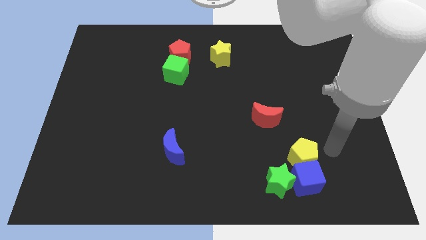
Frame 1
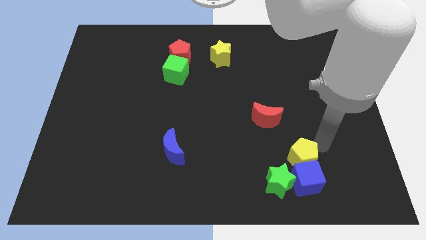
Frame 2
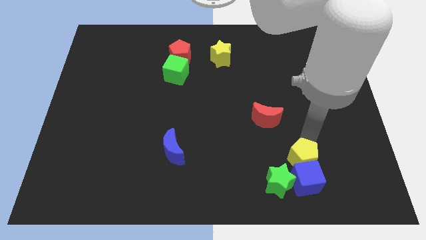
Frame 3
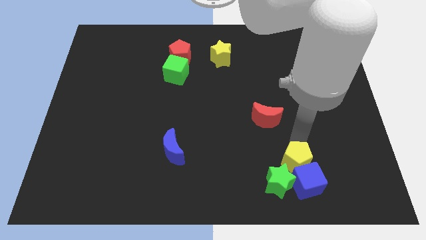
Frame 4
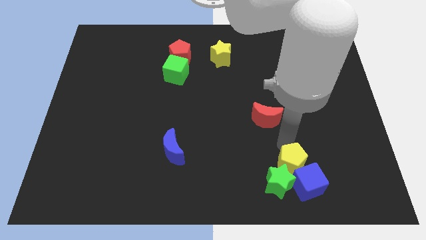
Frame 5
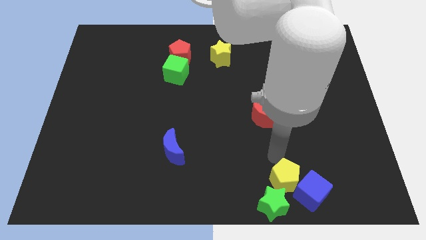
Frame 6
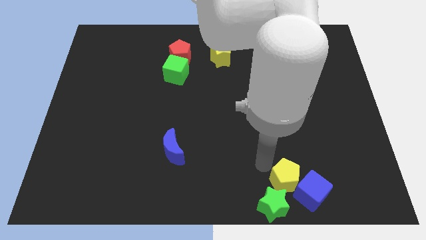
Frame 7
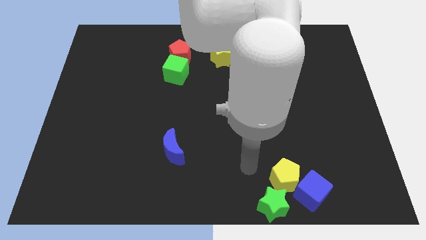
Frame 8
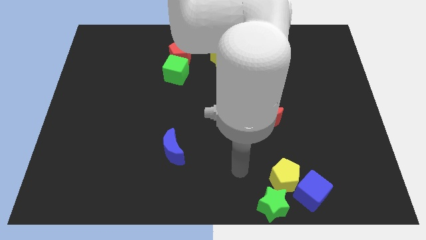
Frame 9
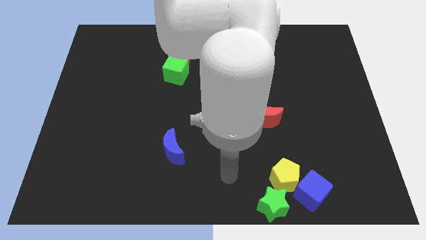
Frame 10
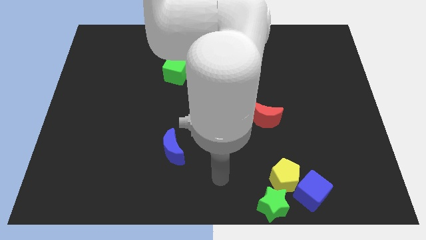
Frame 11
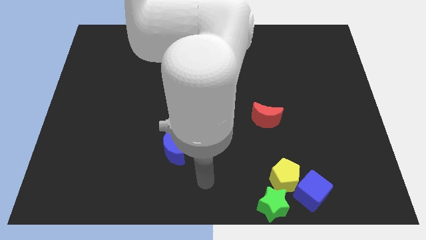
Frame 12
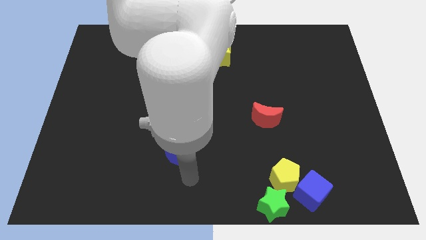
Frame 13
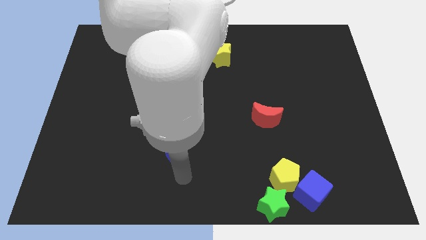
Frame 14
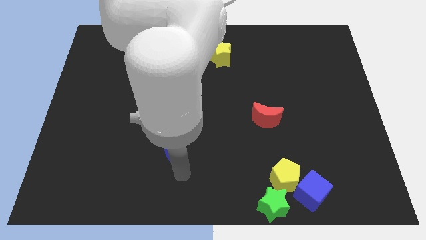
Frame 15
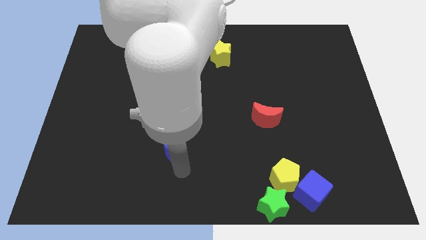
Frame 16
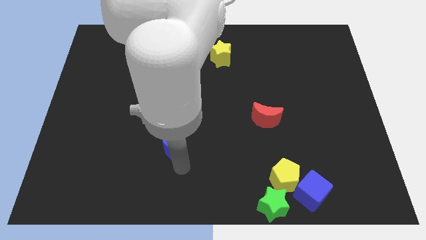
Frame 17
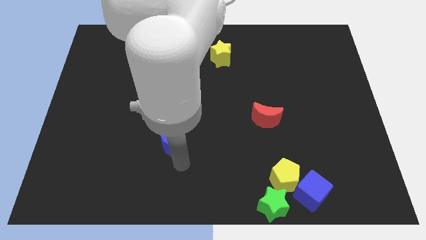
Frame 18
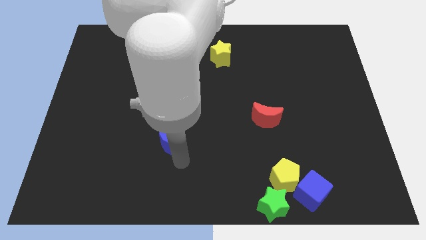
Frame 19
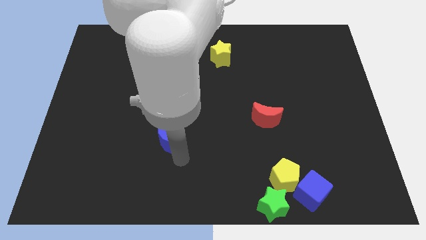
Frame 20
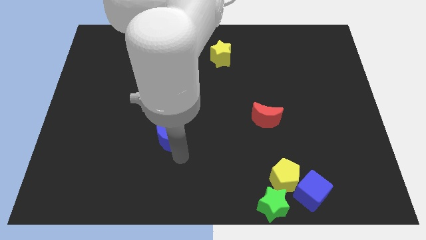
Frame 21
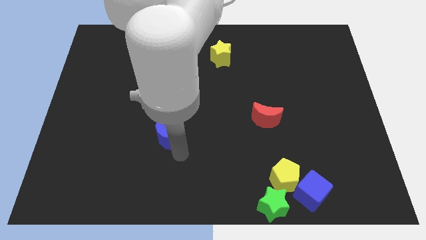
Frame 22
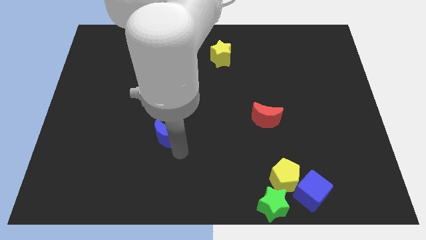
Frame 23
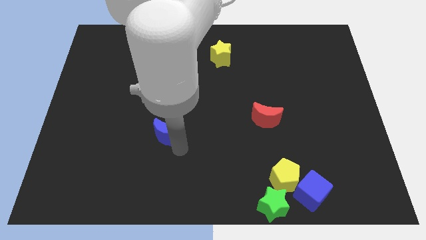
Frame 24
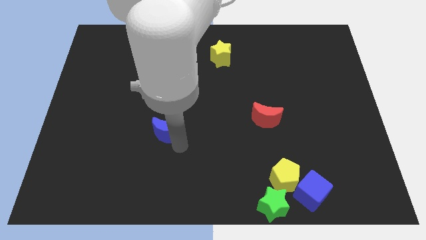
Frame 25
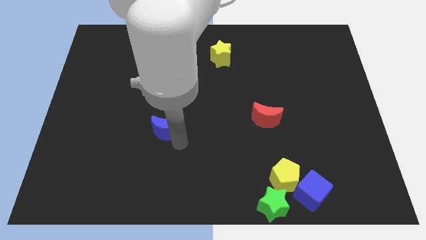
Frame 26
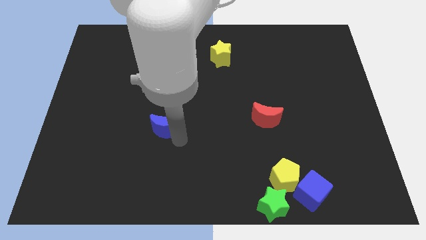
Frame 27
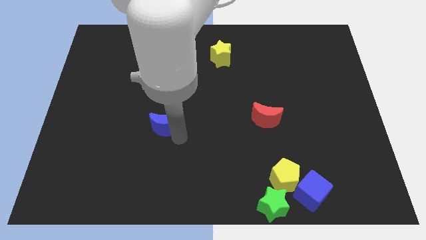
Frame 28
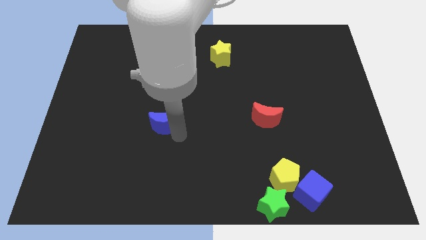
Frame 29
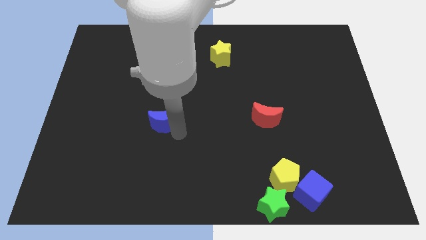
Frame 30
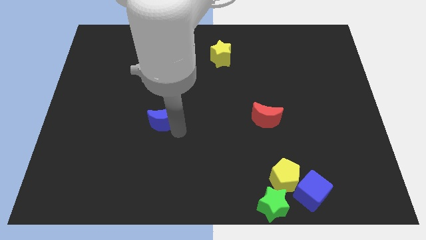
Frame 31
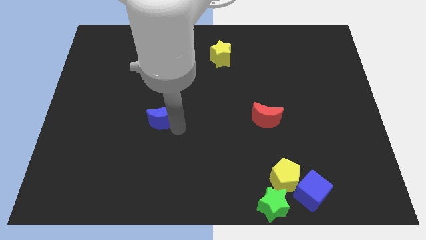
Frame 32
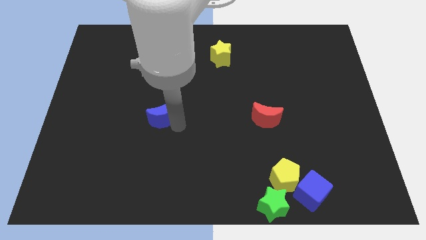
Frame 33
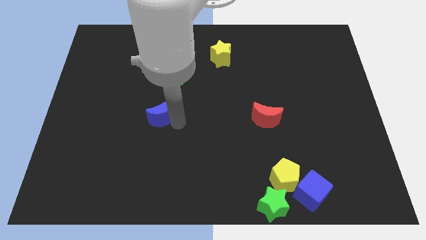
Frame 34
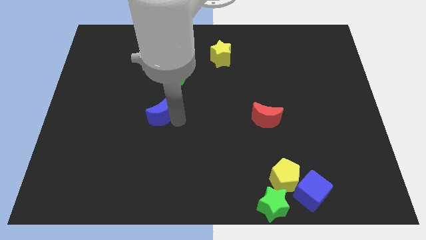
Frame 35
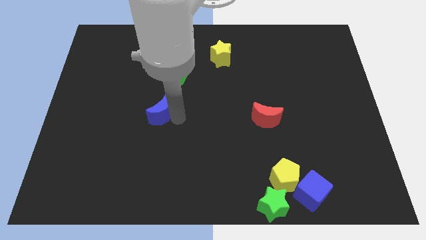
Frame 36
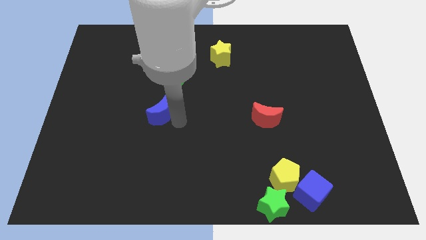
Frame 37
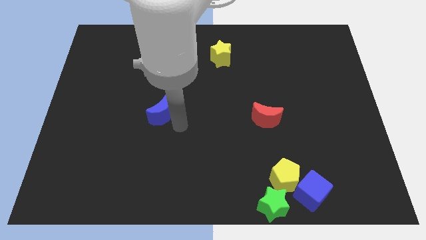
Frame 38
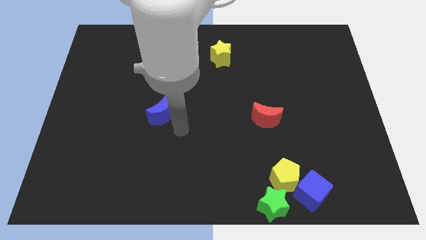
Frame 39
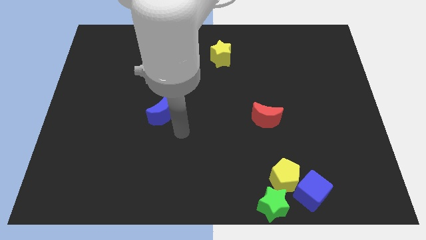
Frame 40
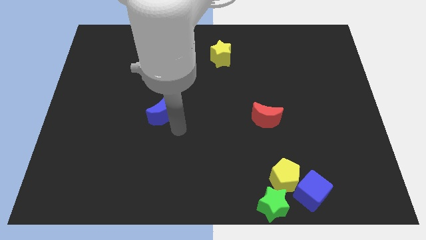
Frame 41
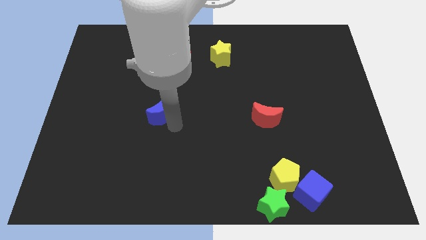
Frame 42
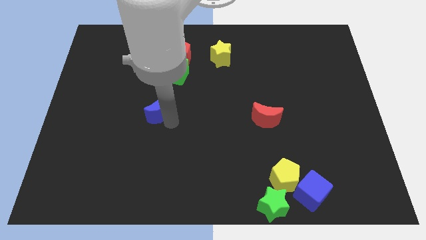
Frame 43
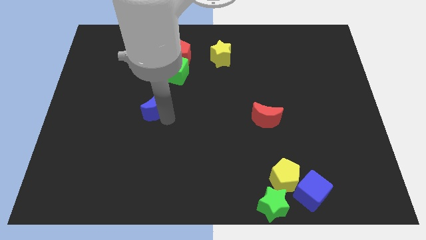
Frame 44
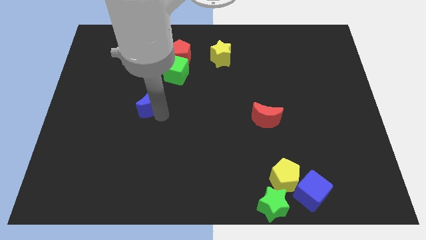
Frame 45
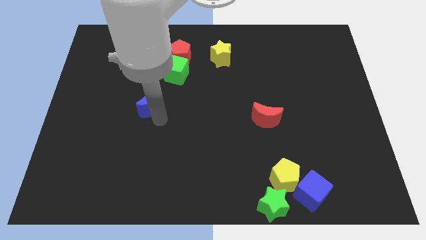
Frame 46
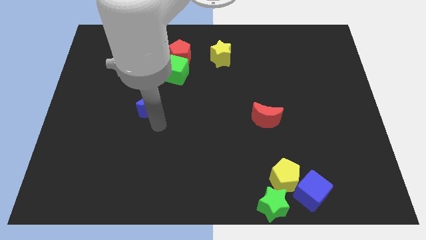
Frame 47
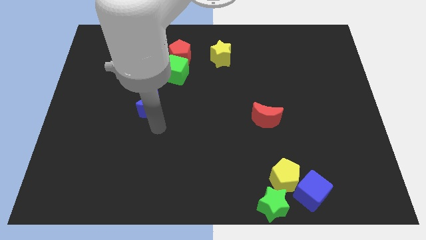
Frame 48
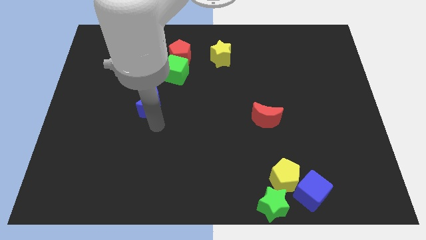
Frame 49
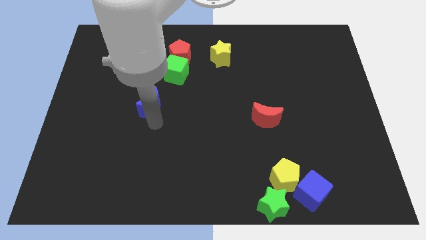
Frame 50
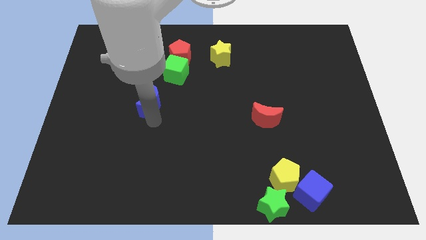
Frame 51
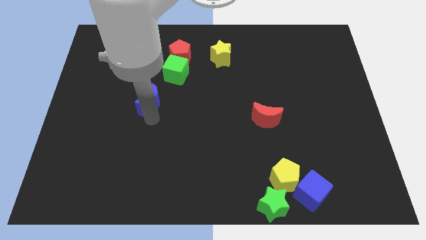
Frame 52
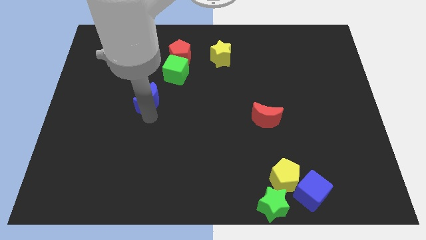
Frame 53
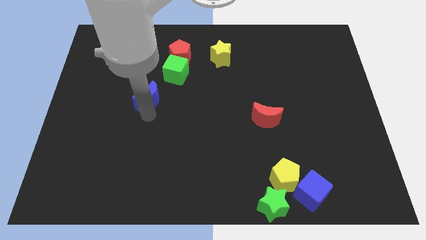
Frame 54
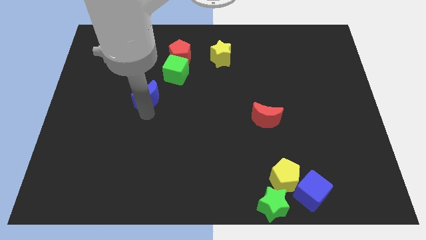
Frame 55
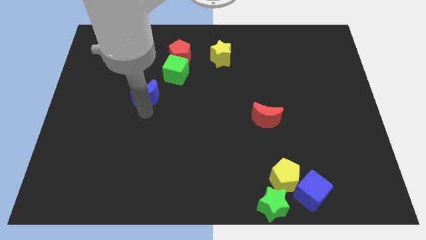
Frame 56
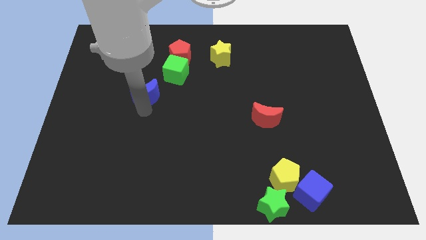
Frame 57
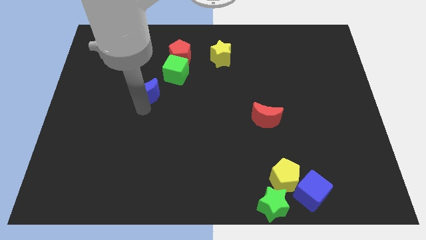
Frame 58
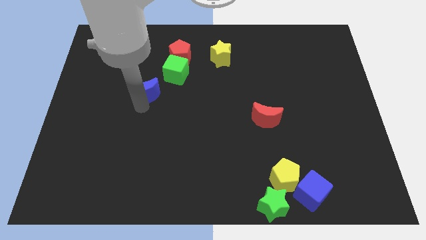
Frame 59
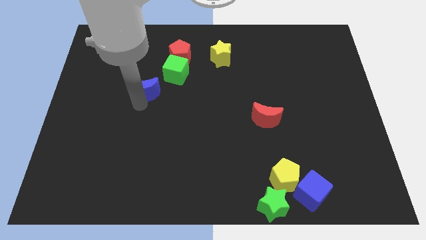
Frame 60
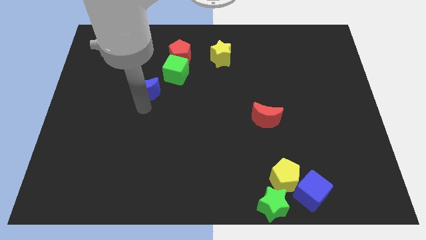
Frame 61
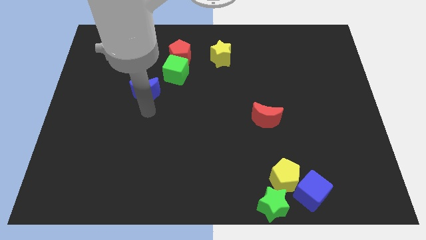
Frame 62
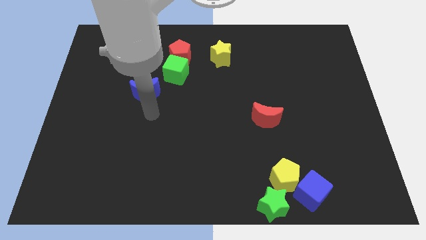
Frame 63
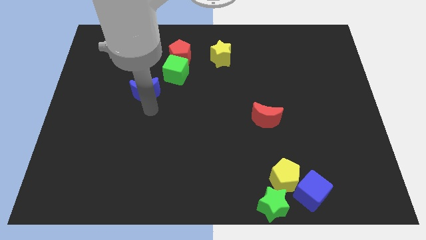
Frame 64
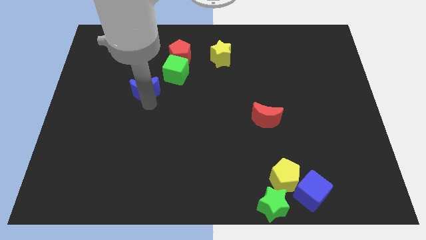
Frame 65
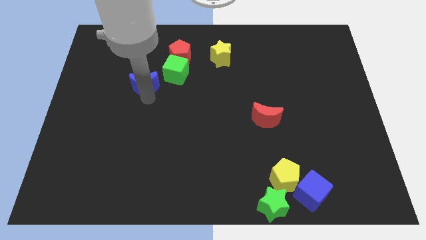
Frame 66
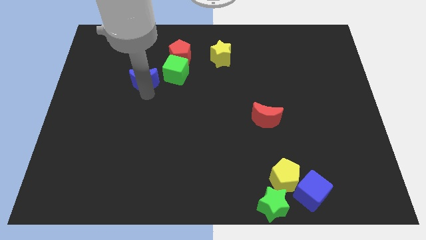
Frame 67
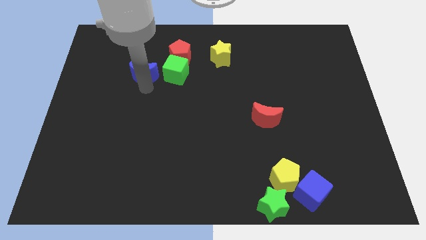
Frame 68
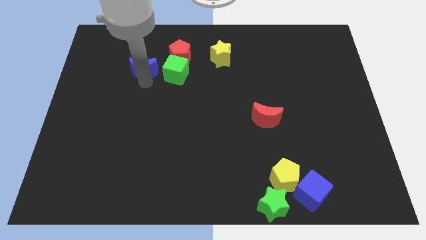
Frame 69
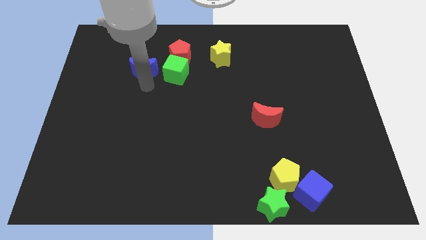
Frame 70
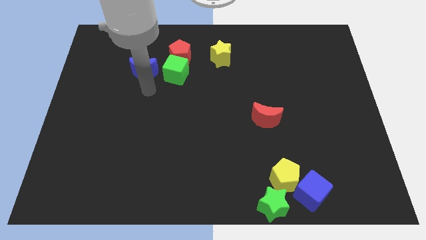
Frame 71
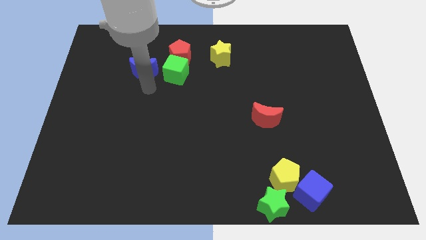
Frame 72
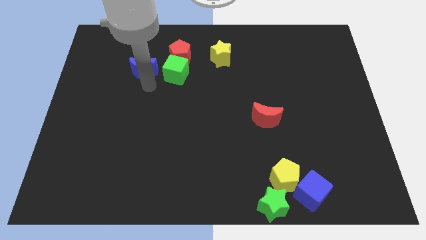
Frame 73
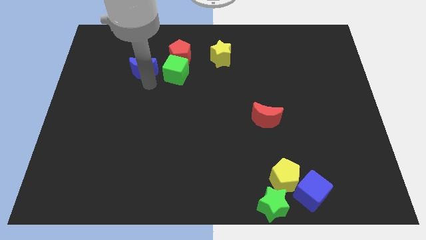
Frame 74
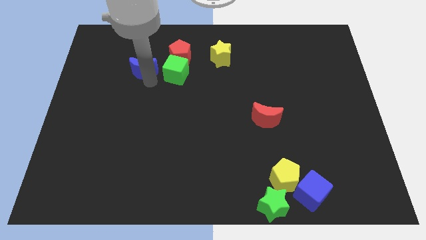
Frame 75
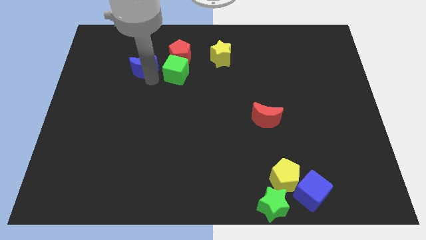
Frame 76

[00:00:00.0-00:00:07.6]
move the blue moon just left of the red pentagon
